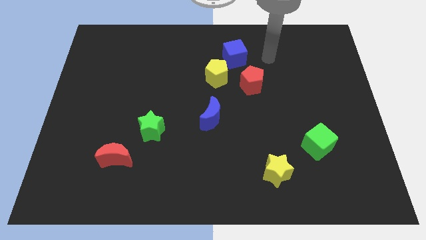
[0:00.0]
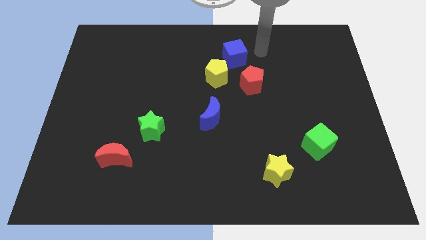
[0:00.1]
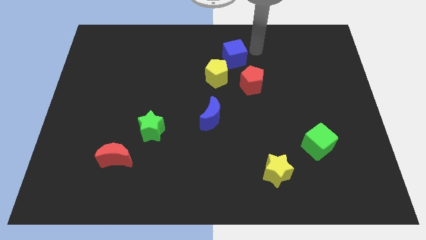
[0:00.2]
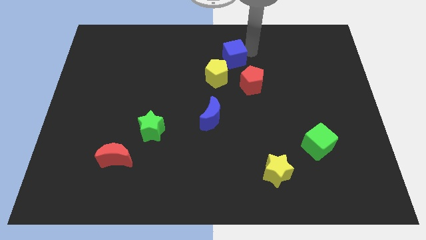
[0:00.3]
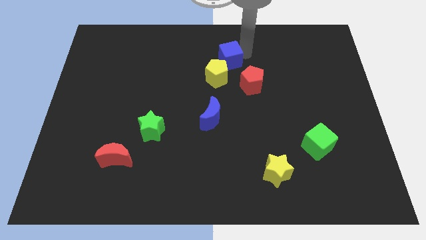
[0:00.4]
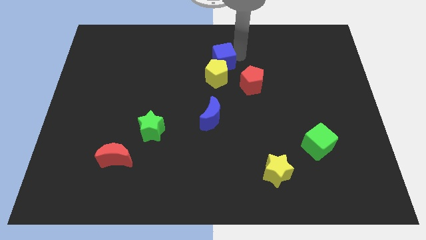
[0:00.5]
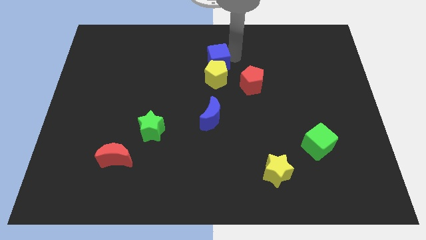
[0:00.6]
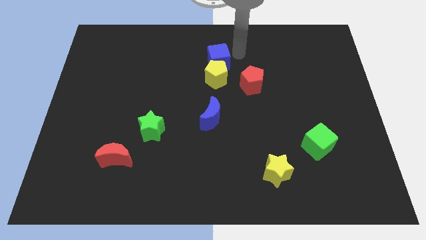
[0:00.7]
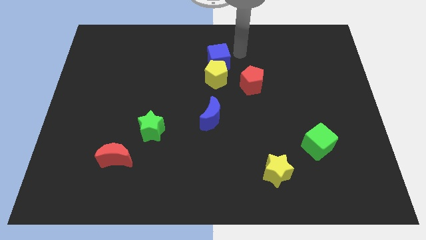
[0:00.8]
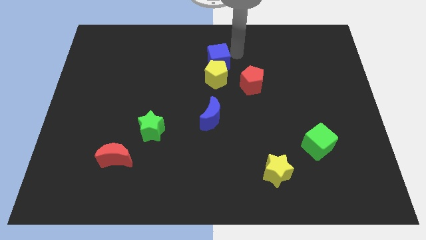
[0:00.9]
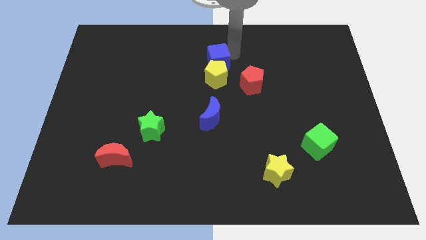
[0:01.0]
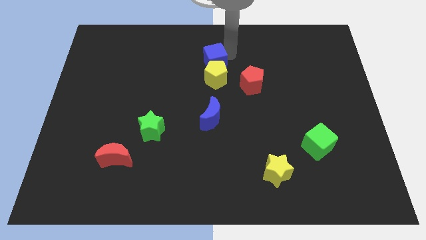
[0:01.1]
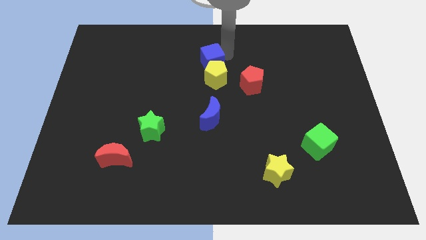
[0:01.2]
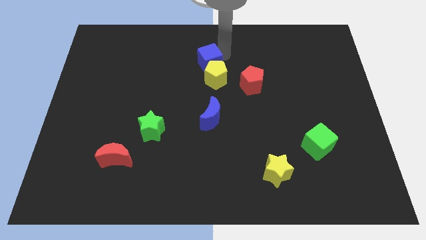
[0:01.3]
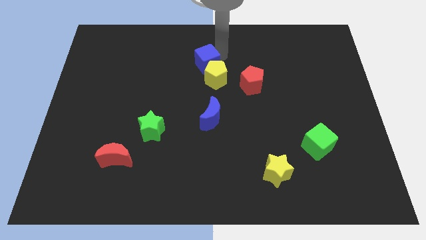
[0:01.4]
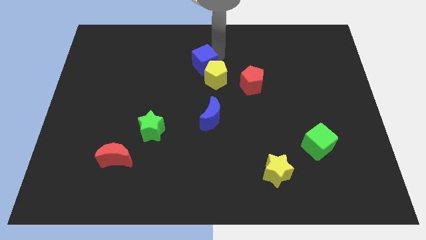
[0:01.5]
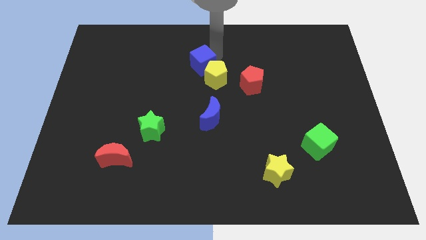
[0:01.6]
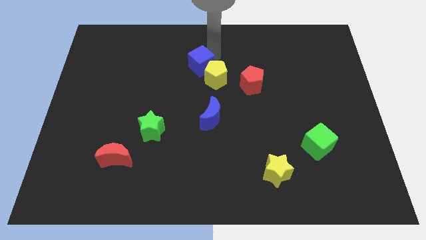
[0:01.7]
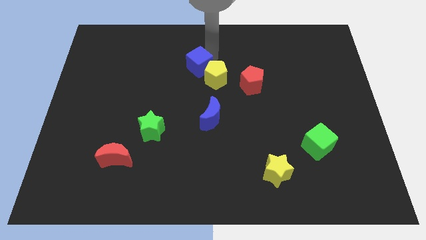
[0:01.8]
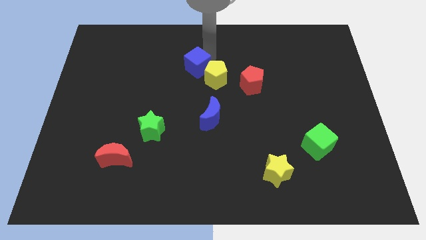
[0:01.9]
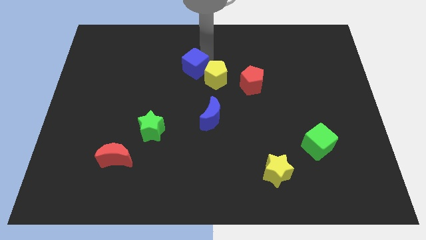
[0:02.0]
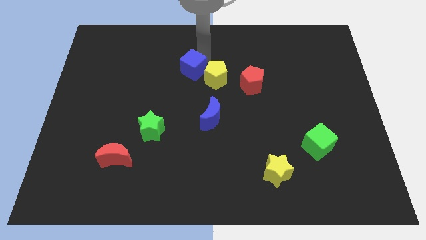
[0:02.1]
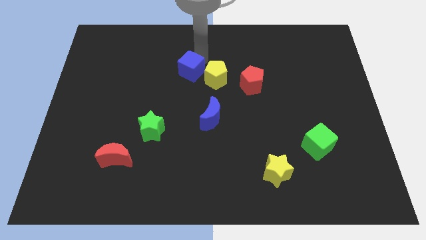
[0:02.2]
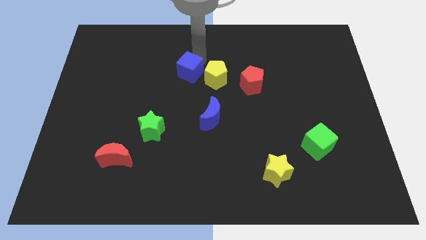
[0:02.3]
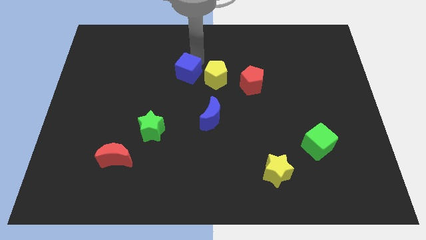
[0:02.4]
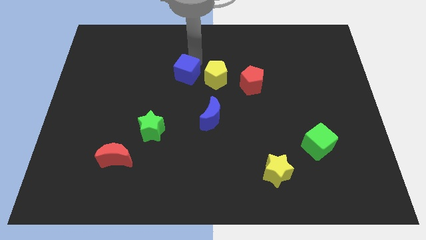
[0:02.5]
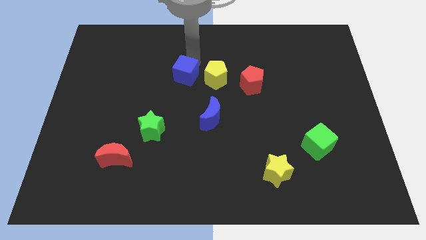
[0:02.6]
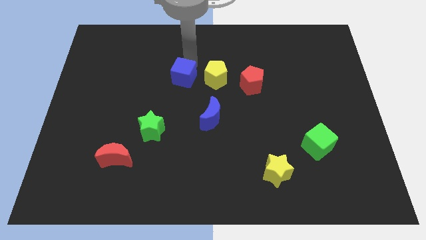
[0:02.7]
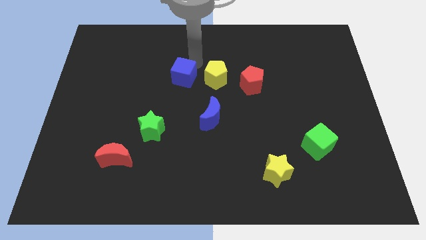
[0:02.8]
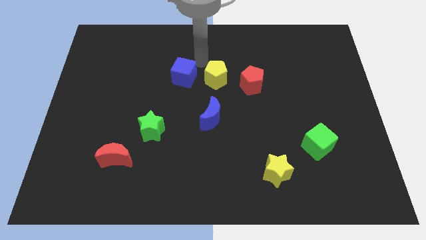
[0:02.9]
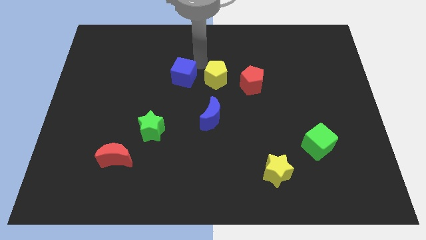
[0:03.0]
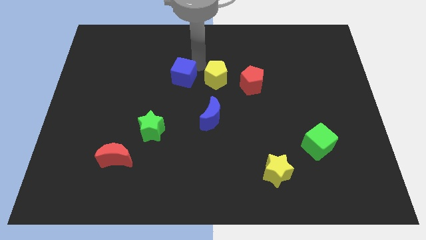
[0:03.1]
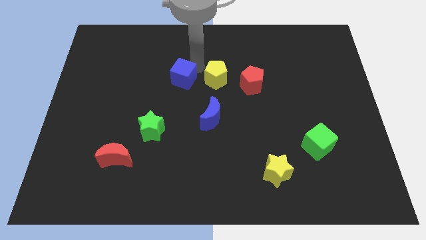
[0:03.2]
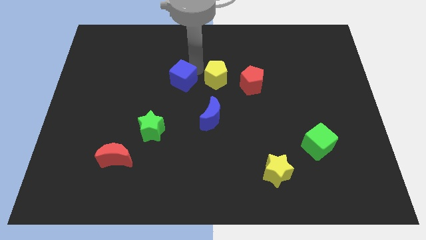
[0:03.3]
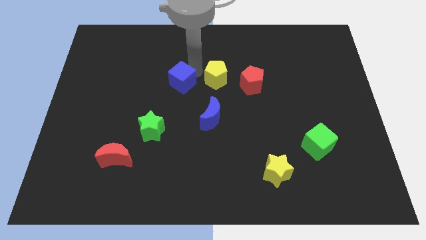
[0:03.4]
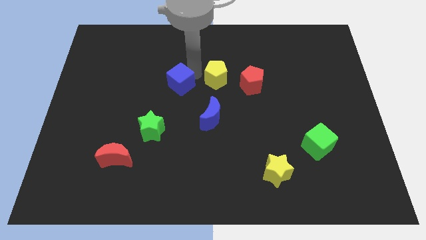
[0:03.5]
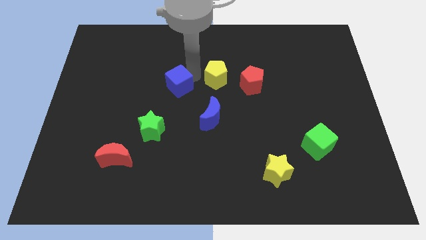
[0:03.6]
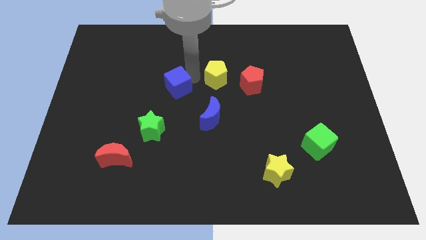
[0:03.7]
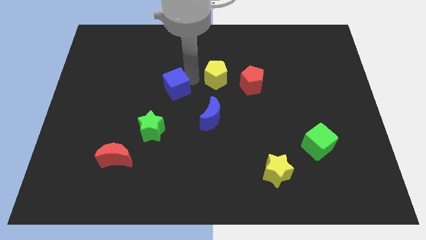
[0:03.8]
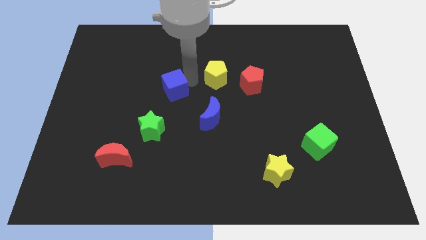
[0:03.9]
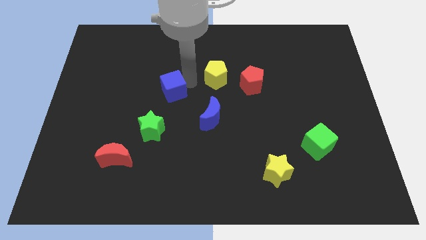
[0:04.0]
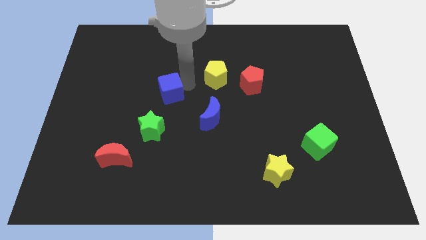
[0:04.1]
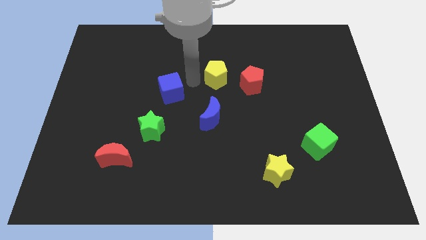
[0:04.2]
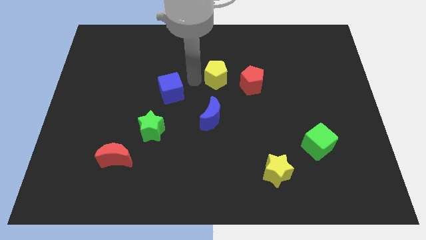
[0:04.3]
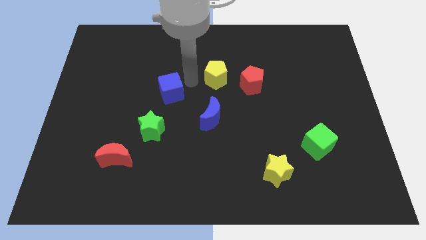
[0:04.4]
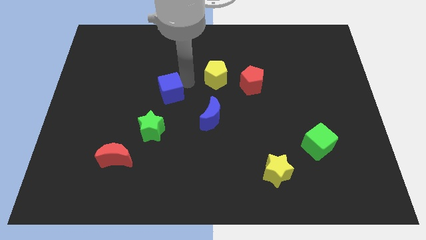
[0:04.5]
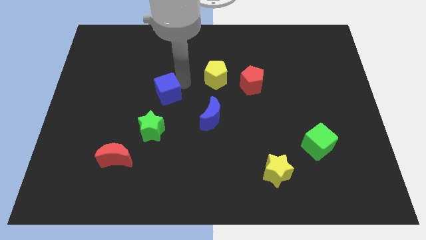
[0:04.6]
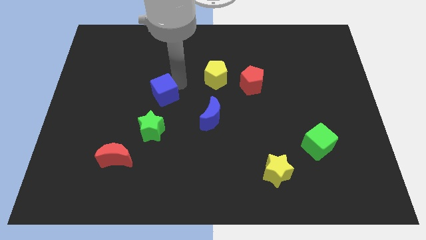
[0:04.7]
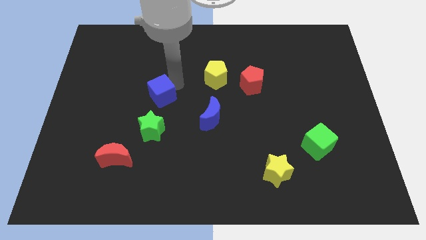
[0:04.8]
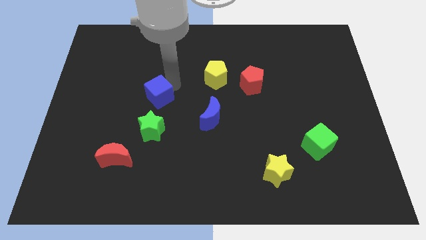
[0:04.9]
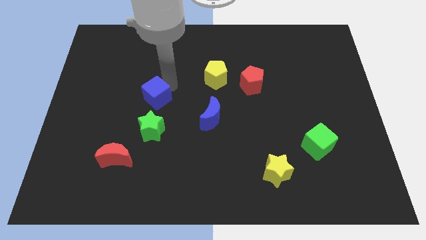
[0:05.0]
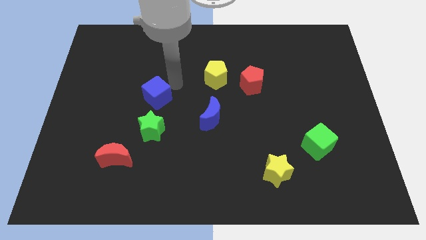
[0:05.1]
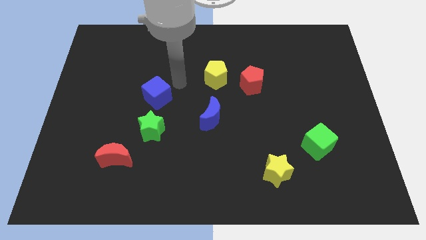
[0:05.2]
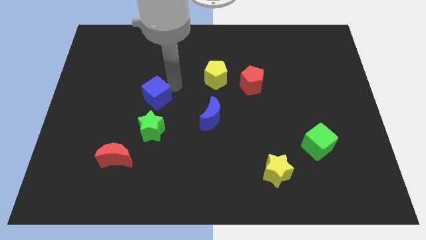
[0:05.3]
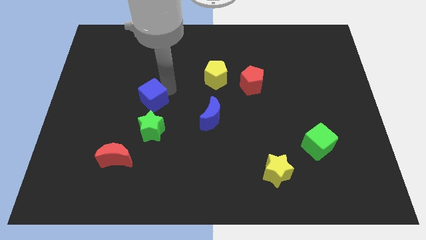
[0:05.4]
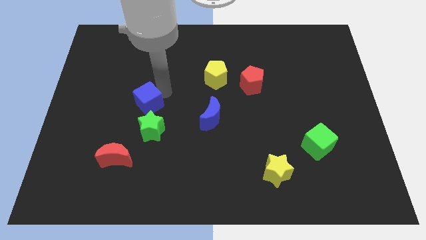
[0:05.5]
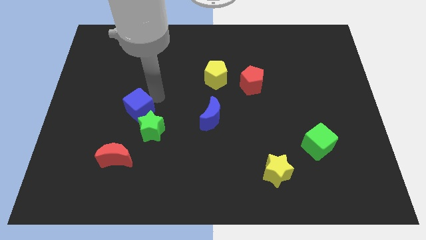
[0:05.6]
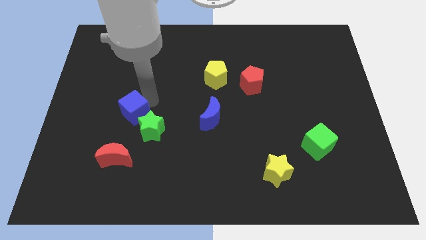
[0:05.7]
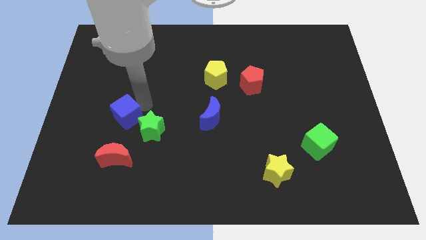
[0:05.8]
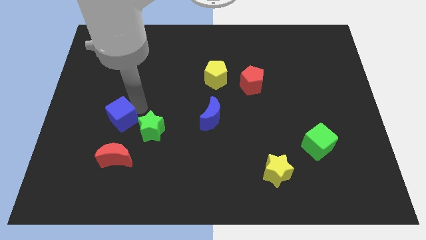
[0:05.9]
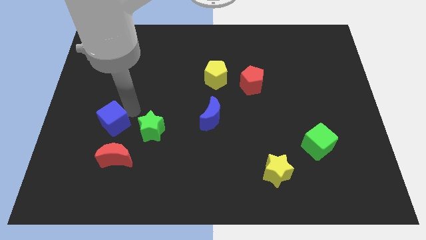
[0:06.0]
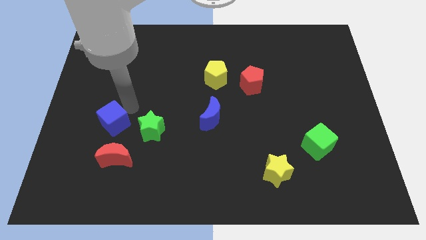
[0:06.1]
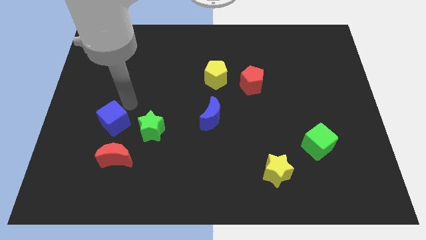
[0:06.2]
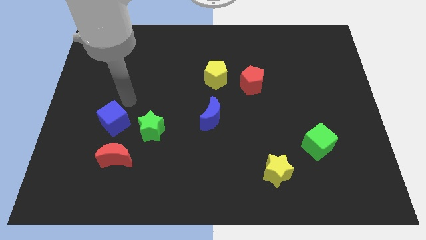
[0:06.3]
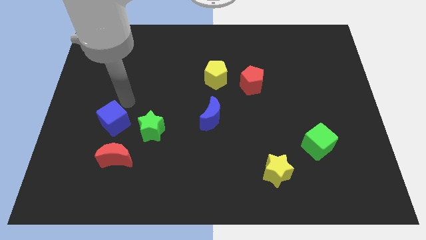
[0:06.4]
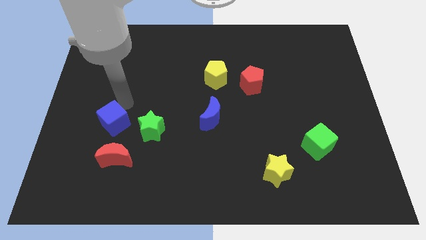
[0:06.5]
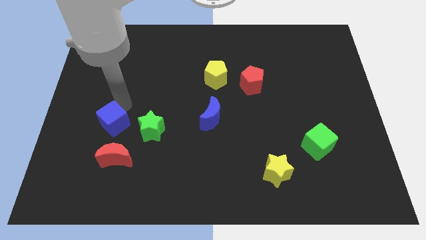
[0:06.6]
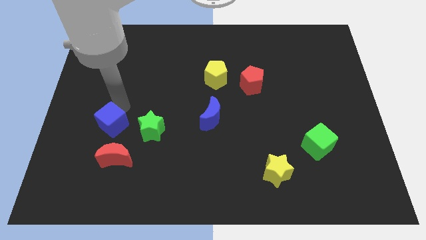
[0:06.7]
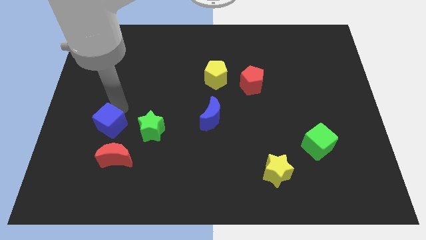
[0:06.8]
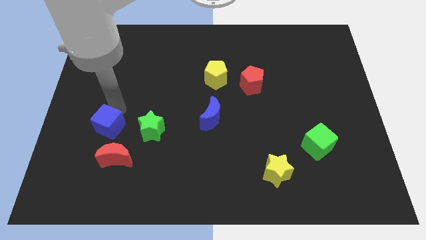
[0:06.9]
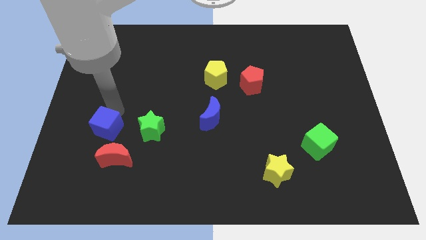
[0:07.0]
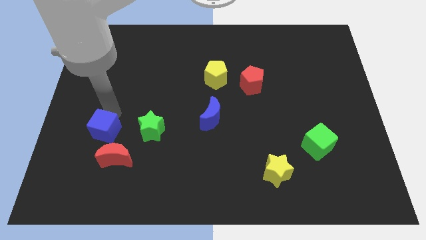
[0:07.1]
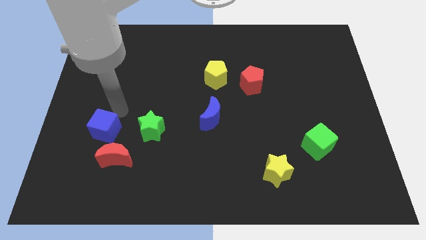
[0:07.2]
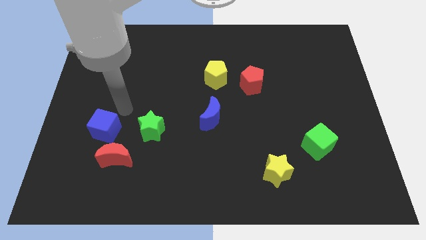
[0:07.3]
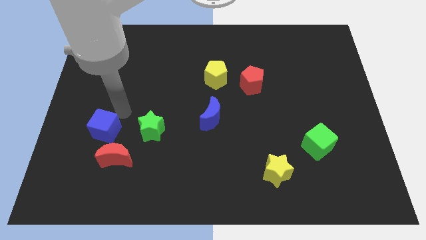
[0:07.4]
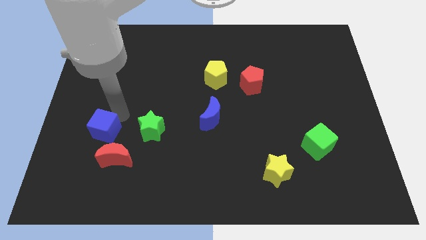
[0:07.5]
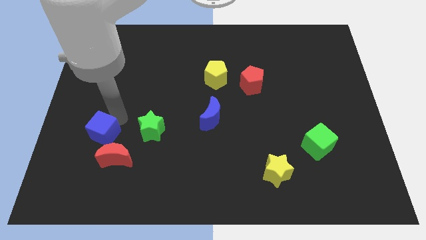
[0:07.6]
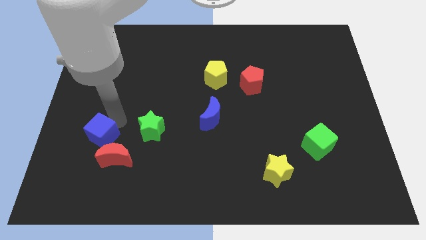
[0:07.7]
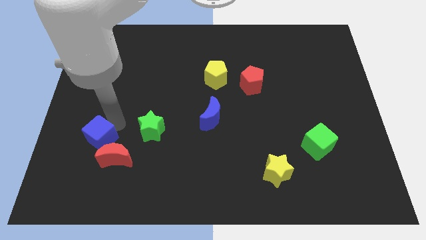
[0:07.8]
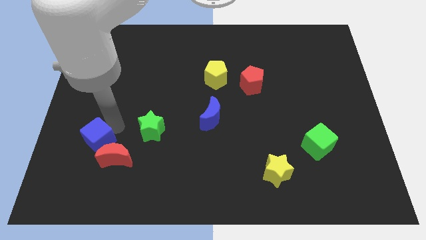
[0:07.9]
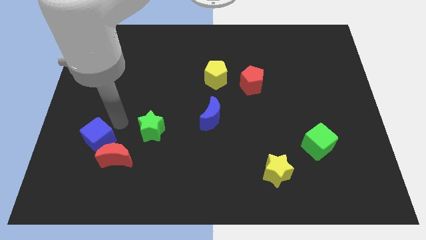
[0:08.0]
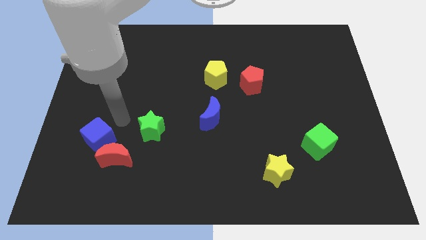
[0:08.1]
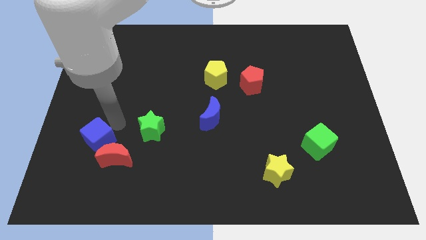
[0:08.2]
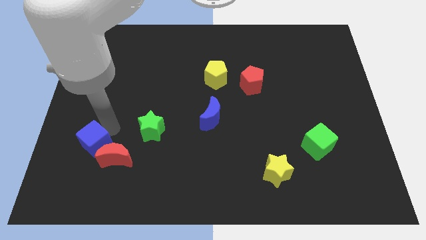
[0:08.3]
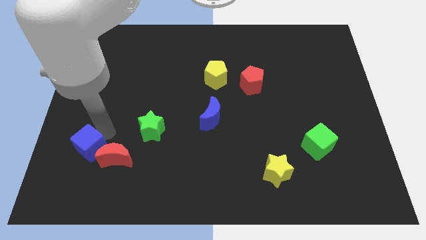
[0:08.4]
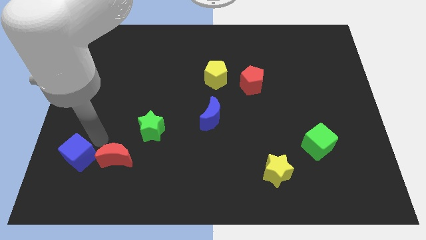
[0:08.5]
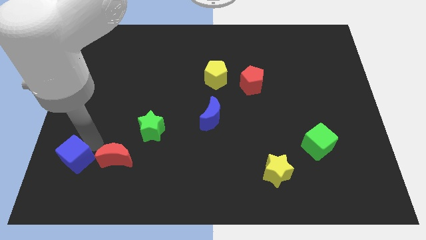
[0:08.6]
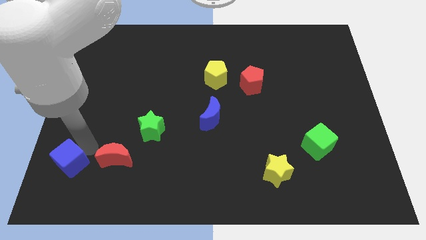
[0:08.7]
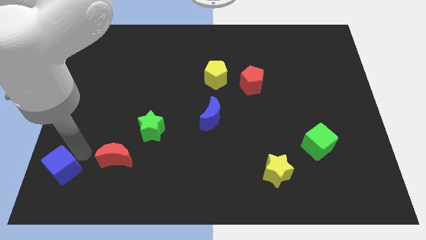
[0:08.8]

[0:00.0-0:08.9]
move the blue cube to the bottom left of the board
